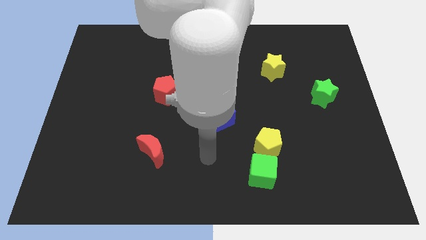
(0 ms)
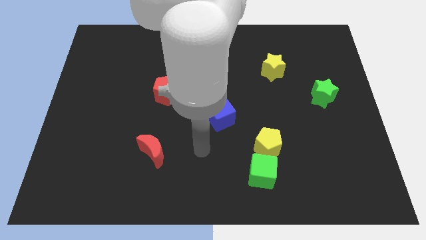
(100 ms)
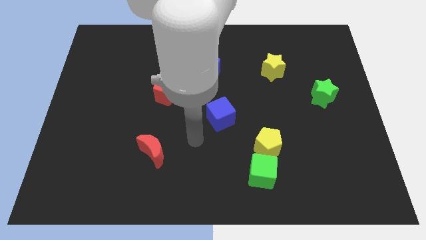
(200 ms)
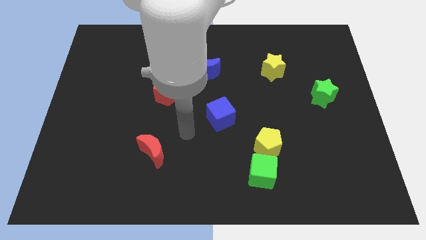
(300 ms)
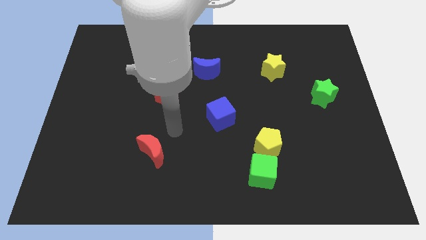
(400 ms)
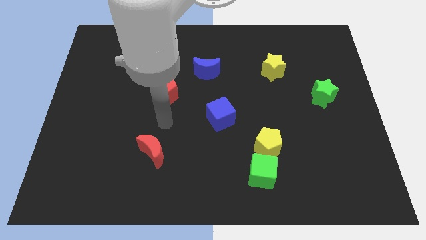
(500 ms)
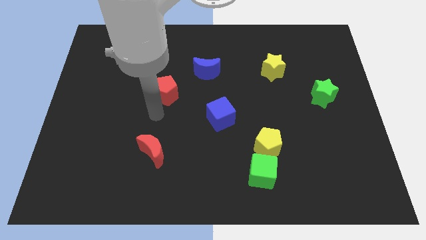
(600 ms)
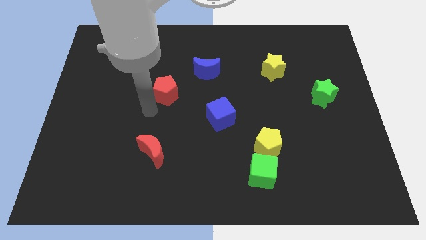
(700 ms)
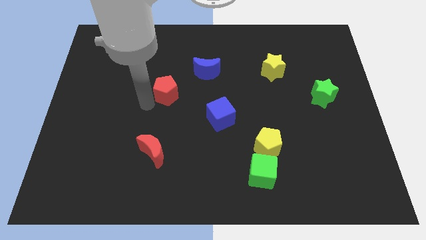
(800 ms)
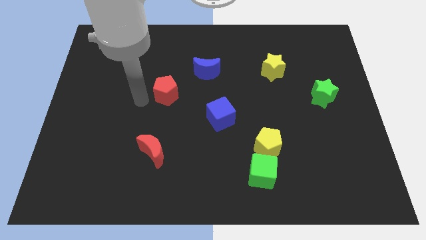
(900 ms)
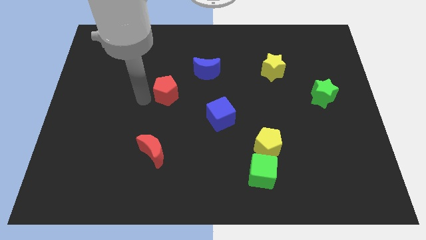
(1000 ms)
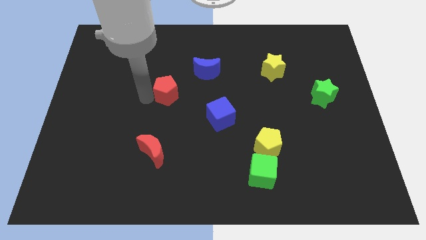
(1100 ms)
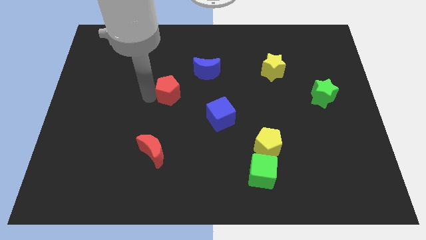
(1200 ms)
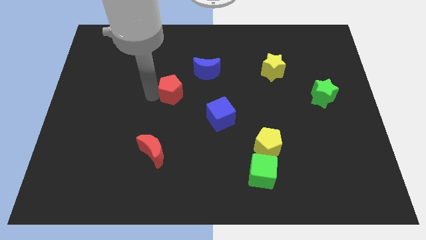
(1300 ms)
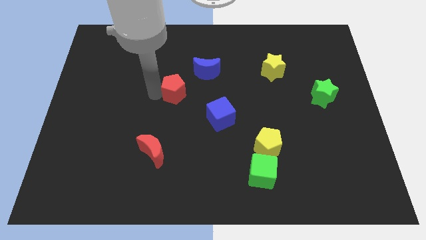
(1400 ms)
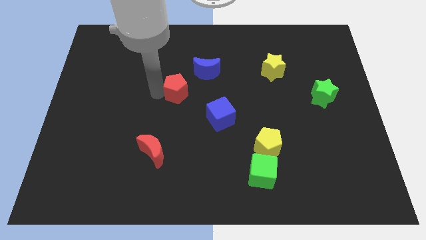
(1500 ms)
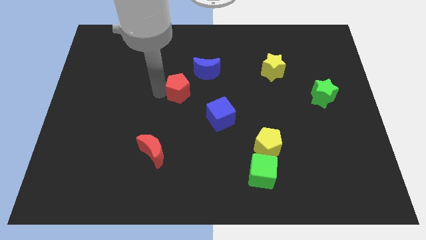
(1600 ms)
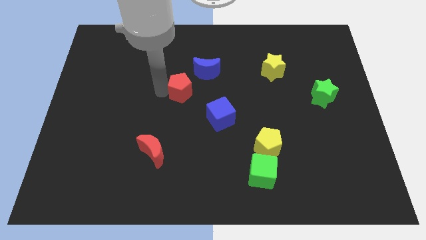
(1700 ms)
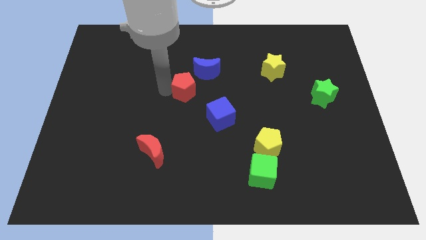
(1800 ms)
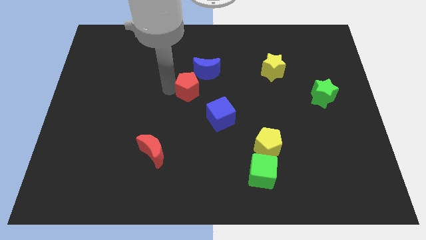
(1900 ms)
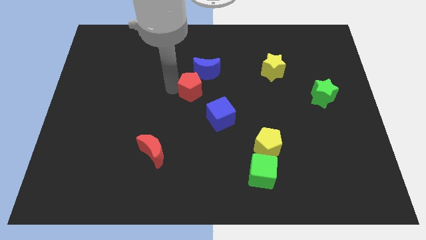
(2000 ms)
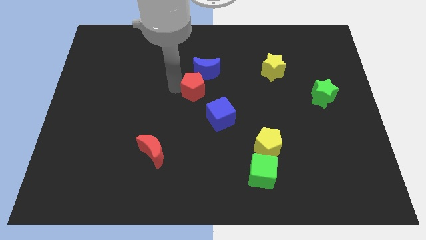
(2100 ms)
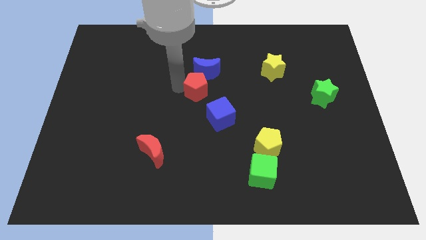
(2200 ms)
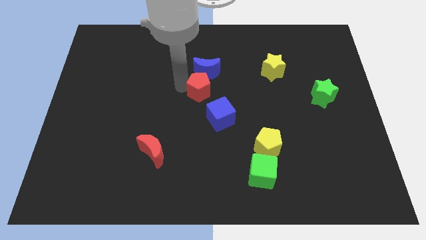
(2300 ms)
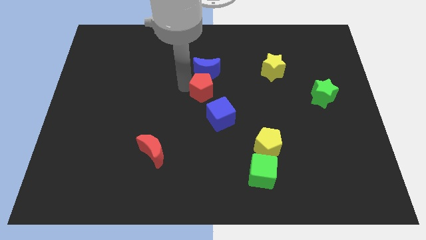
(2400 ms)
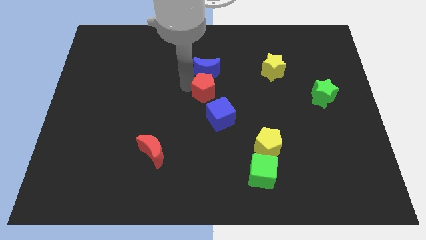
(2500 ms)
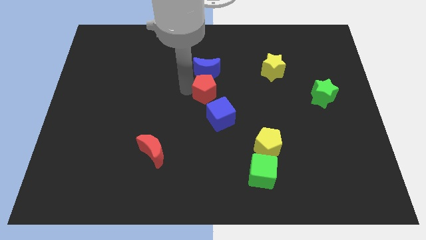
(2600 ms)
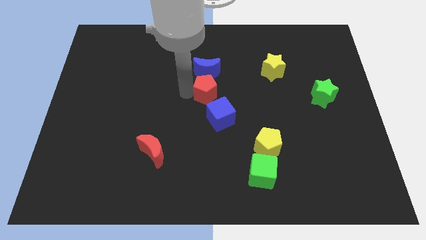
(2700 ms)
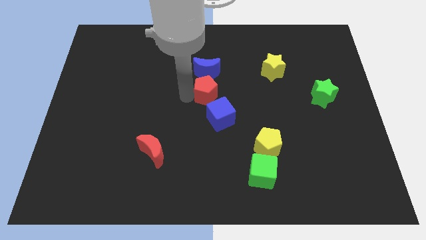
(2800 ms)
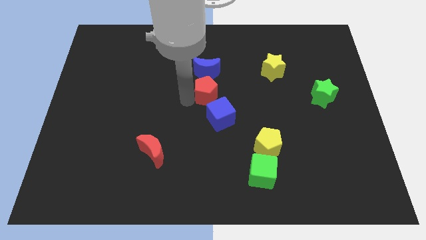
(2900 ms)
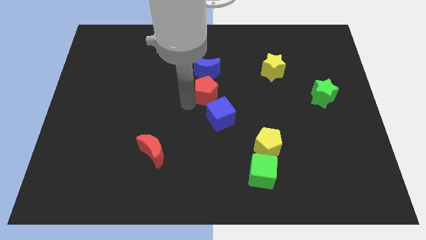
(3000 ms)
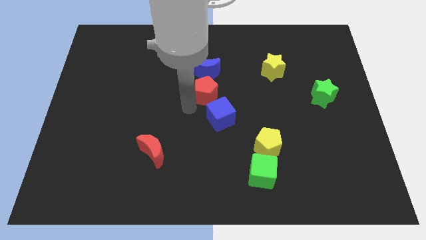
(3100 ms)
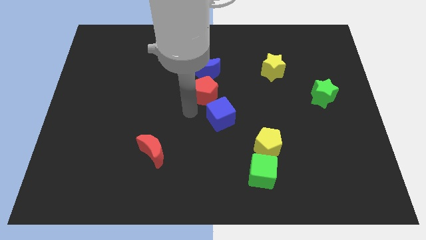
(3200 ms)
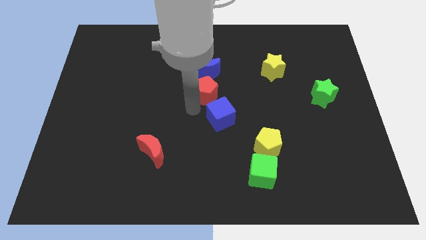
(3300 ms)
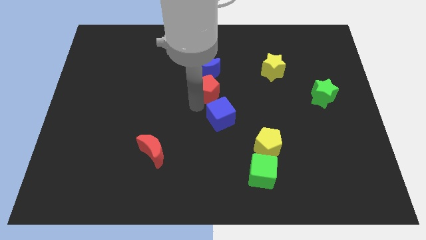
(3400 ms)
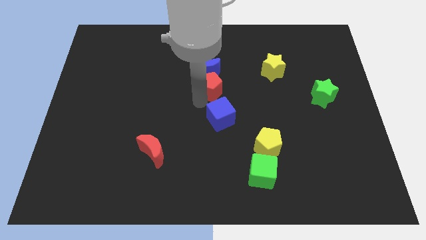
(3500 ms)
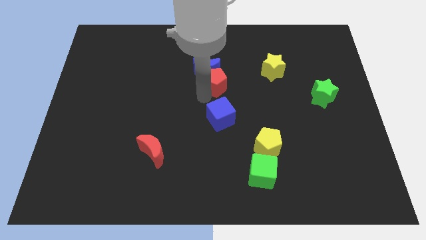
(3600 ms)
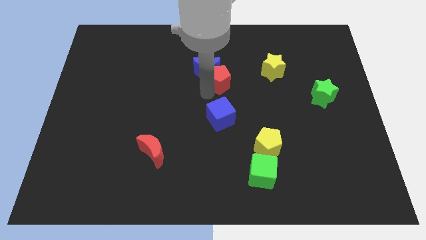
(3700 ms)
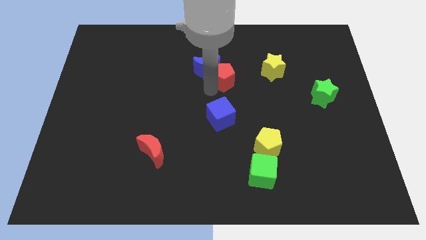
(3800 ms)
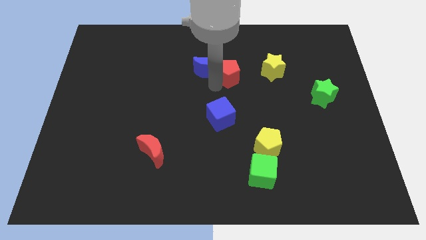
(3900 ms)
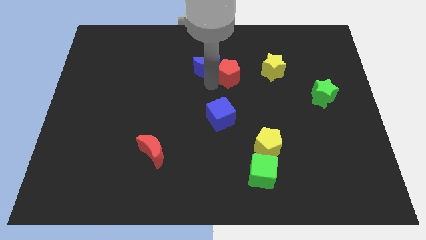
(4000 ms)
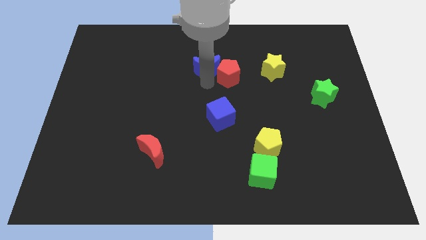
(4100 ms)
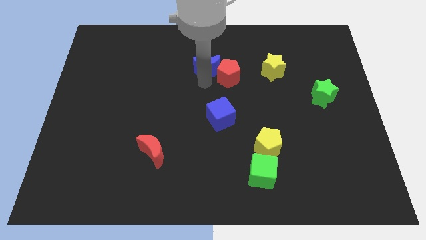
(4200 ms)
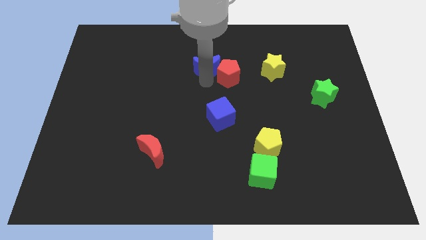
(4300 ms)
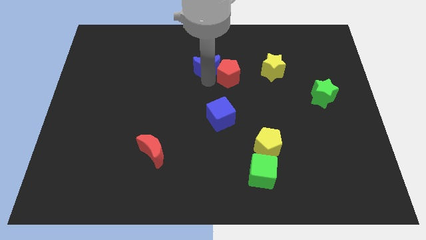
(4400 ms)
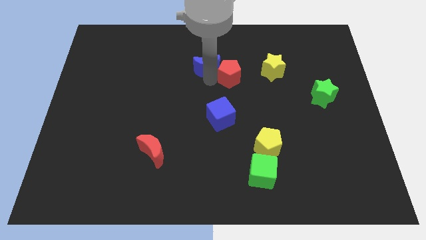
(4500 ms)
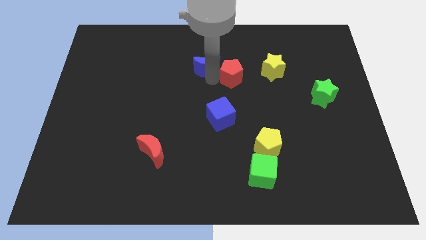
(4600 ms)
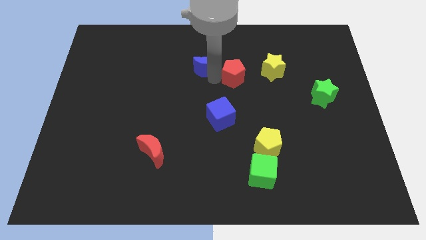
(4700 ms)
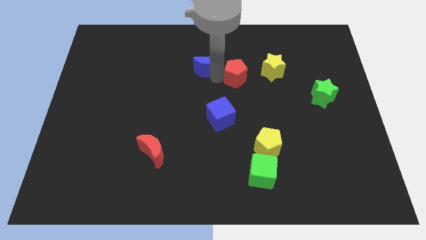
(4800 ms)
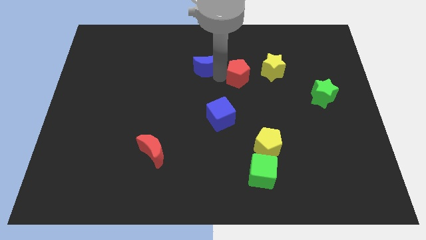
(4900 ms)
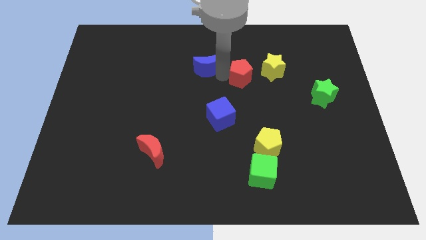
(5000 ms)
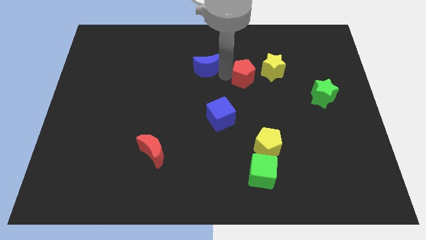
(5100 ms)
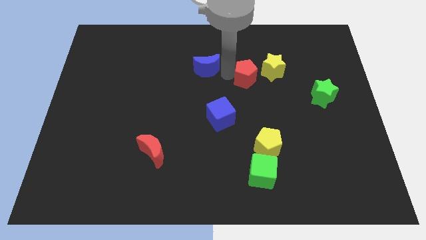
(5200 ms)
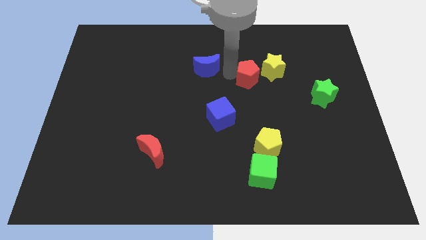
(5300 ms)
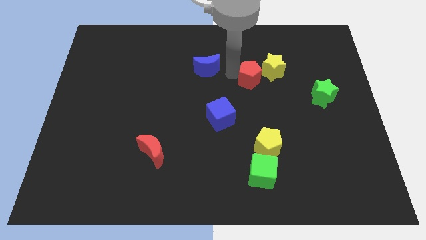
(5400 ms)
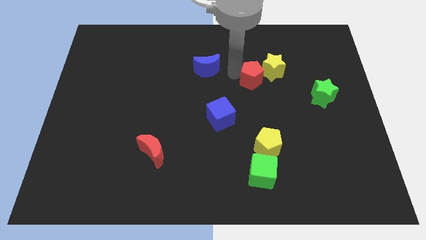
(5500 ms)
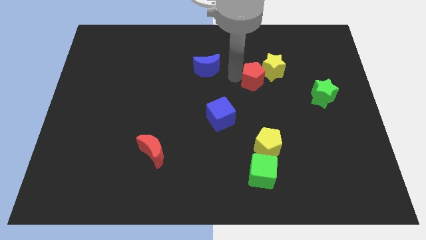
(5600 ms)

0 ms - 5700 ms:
move the red pentagon towards the yellow star

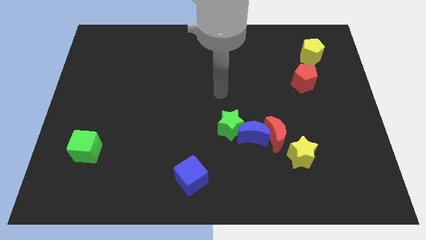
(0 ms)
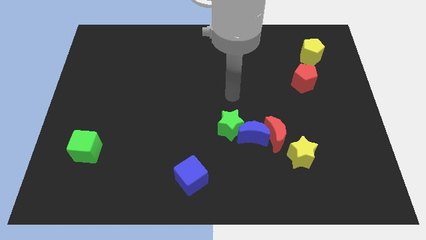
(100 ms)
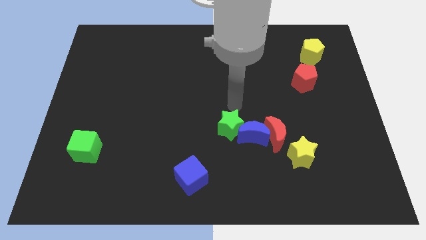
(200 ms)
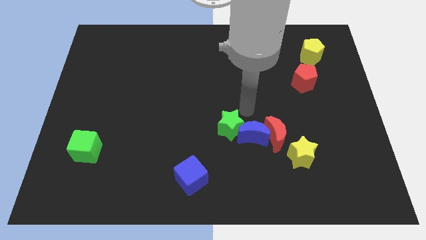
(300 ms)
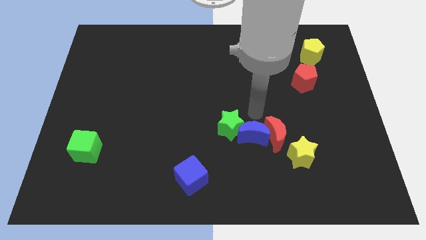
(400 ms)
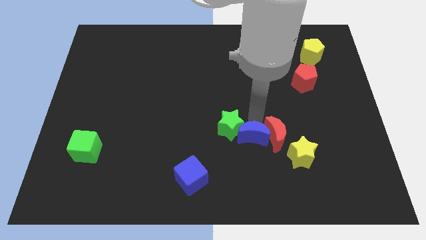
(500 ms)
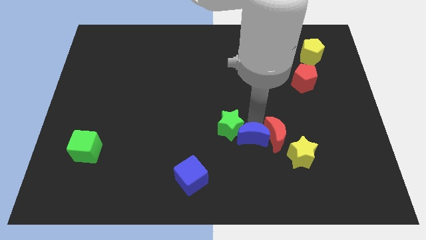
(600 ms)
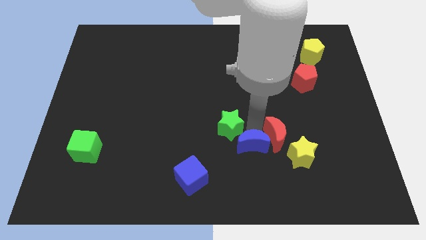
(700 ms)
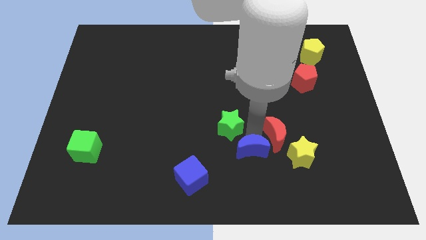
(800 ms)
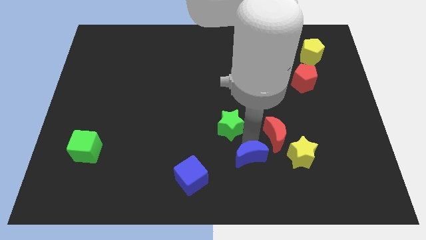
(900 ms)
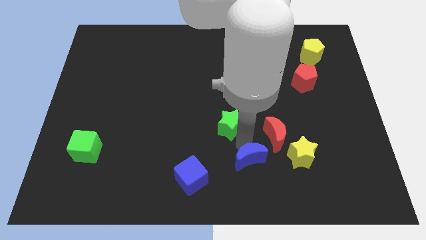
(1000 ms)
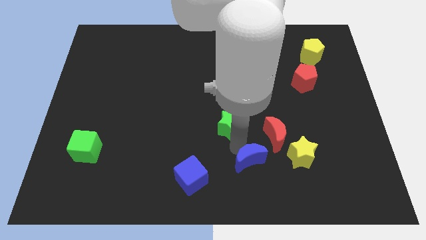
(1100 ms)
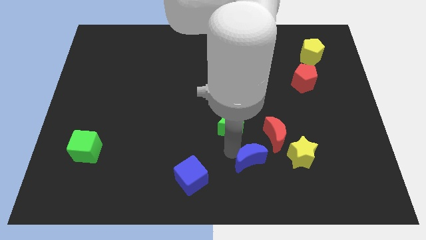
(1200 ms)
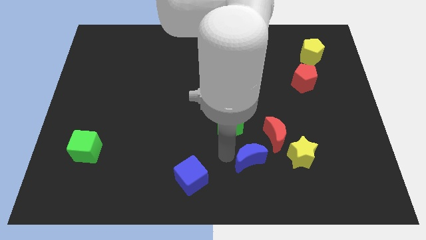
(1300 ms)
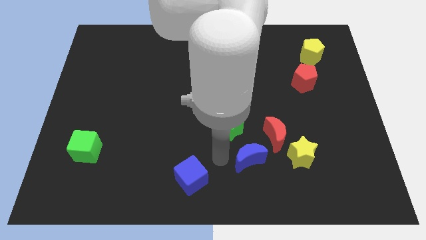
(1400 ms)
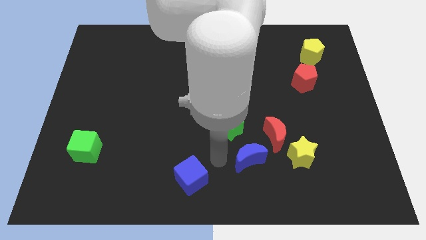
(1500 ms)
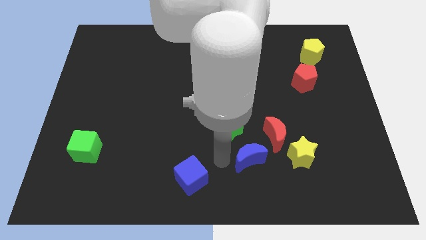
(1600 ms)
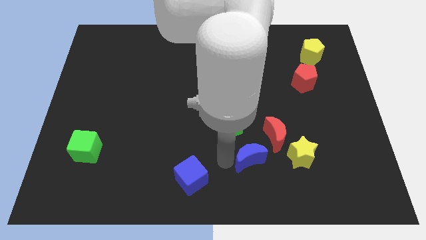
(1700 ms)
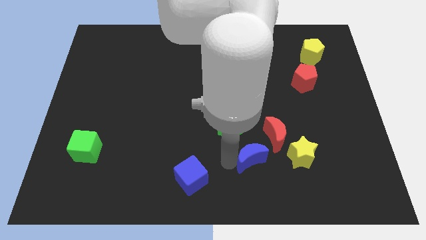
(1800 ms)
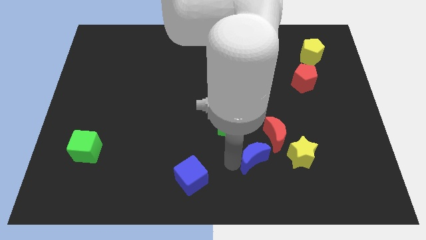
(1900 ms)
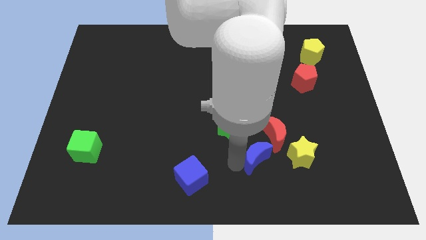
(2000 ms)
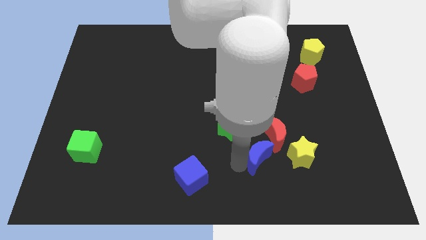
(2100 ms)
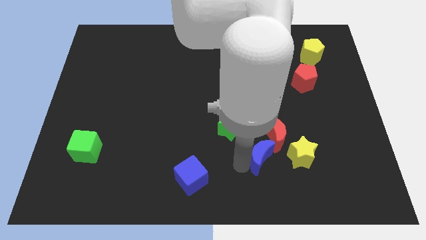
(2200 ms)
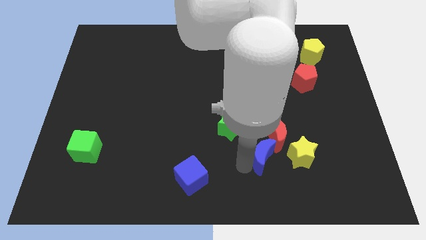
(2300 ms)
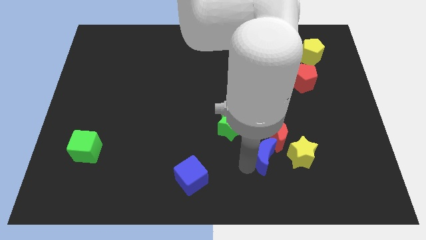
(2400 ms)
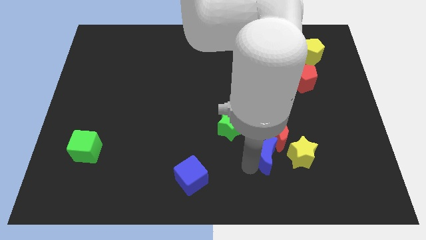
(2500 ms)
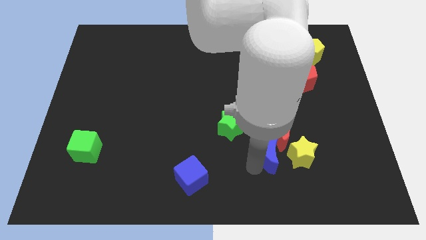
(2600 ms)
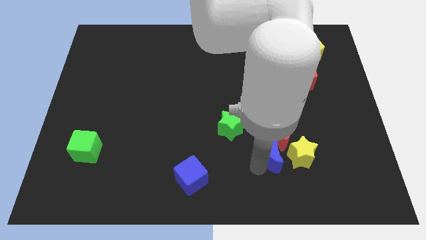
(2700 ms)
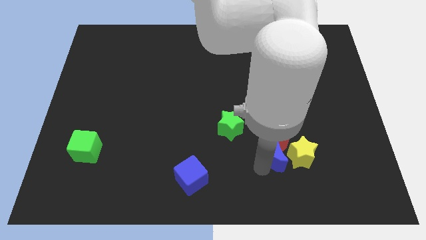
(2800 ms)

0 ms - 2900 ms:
push the blue moon close to the yellow star
